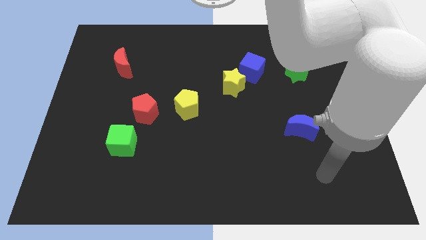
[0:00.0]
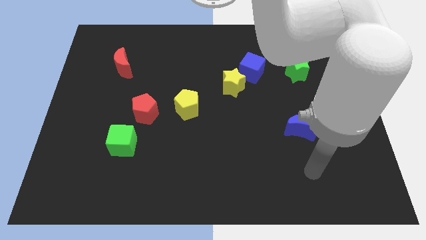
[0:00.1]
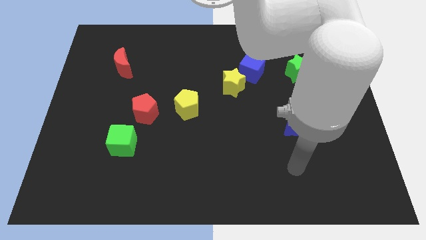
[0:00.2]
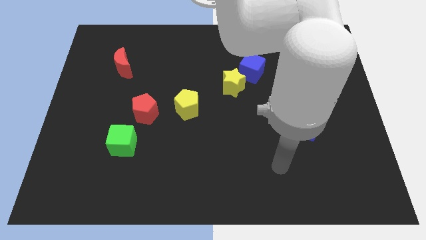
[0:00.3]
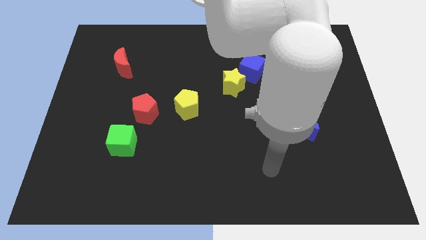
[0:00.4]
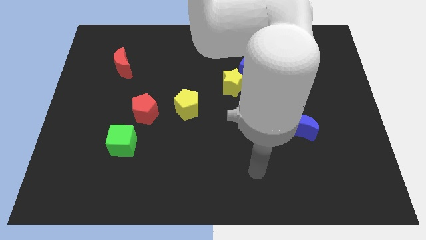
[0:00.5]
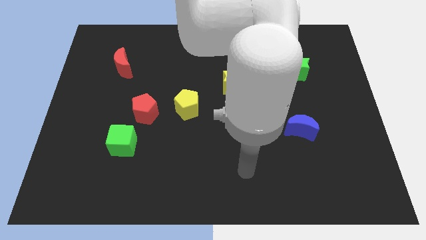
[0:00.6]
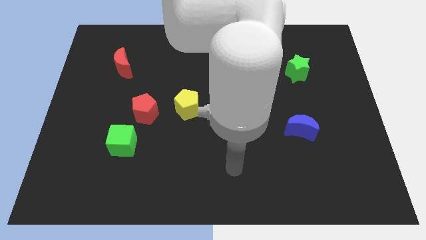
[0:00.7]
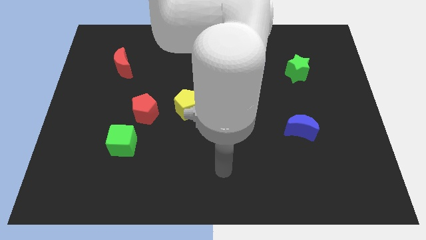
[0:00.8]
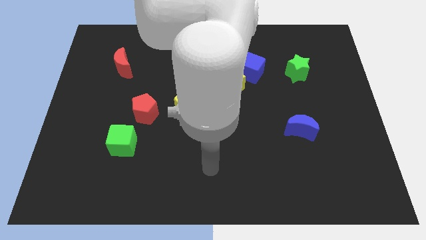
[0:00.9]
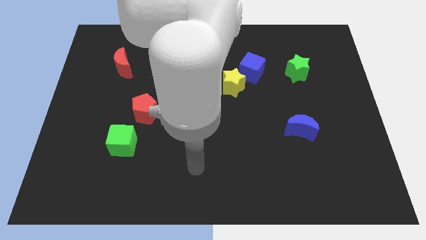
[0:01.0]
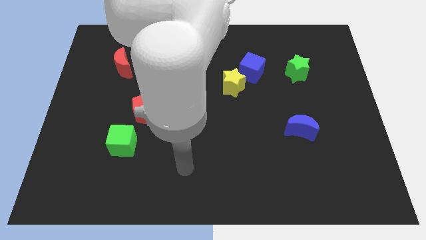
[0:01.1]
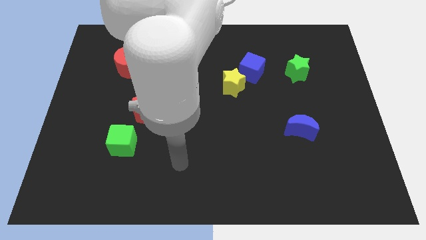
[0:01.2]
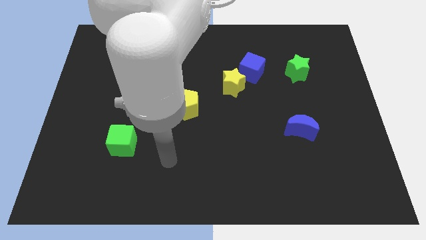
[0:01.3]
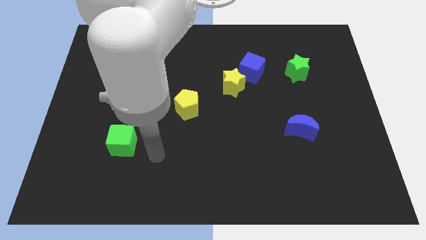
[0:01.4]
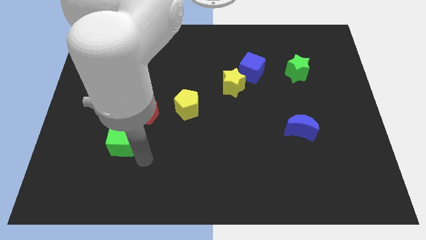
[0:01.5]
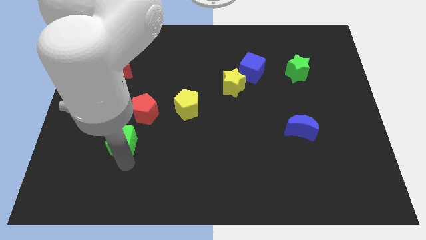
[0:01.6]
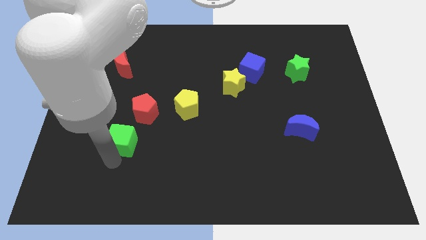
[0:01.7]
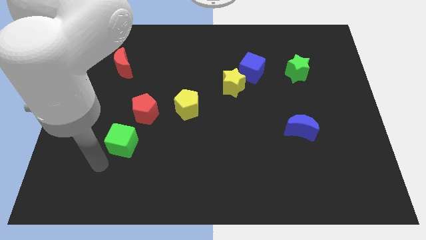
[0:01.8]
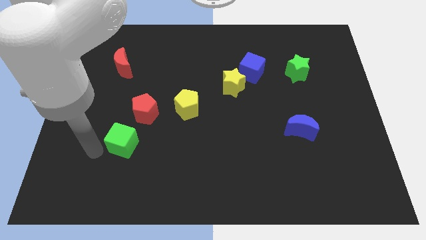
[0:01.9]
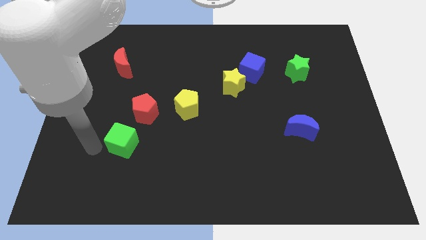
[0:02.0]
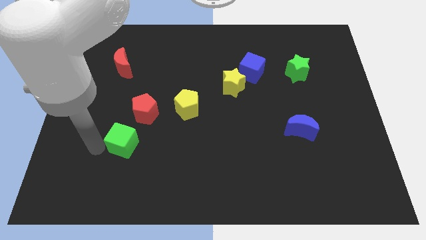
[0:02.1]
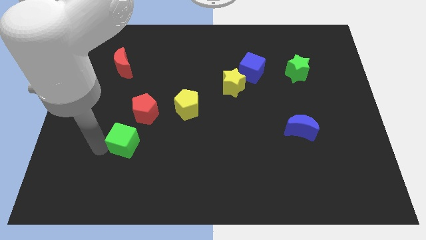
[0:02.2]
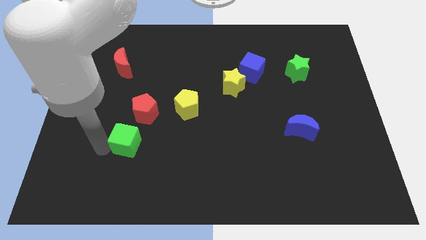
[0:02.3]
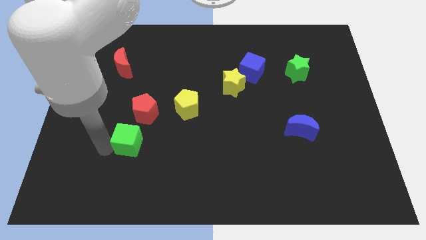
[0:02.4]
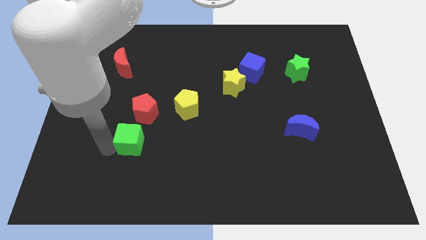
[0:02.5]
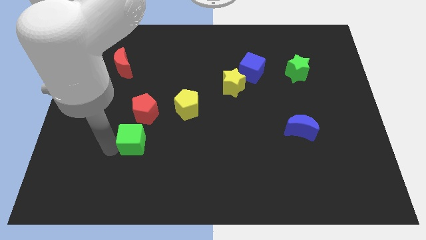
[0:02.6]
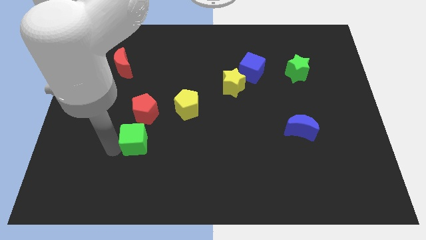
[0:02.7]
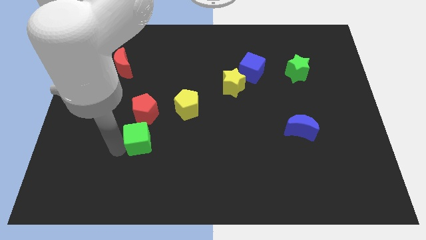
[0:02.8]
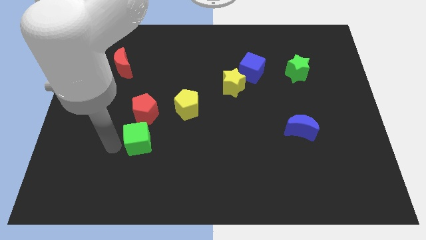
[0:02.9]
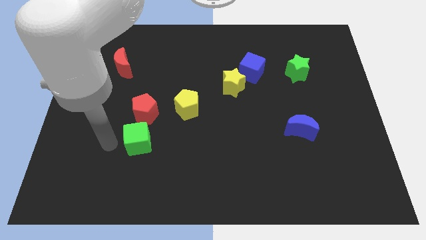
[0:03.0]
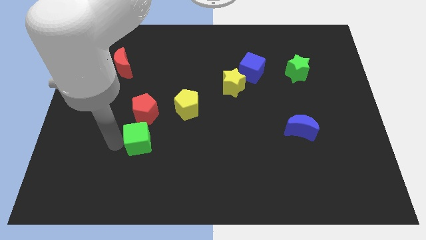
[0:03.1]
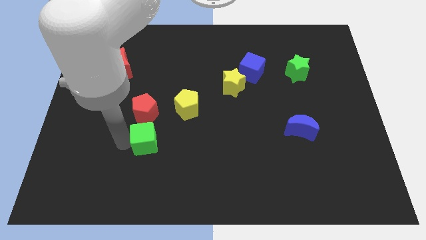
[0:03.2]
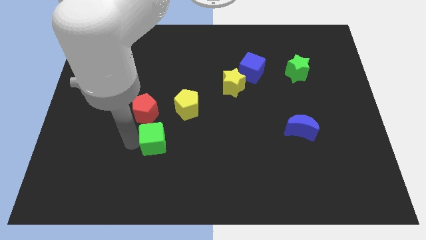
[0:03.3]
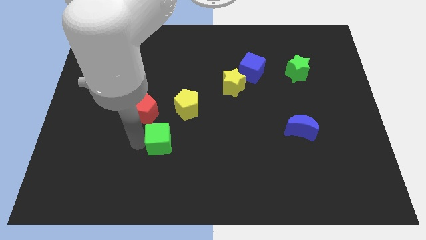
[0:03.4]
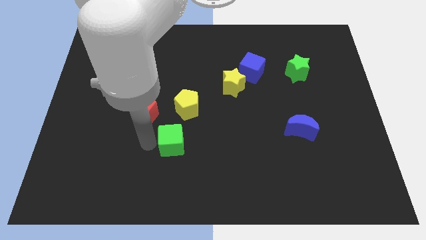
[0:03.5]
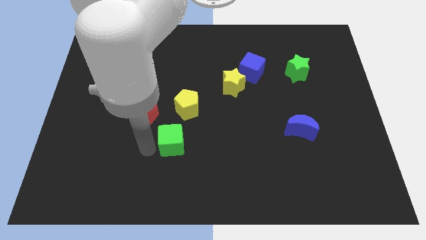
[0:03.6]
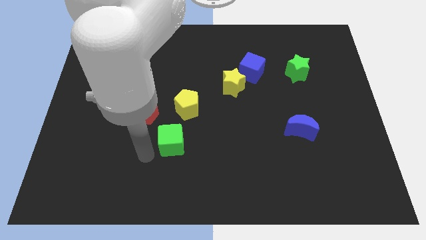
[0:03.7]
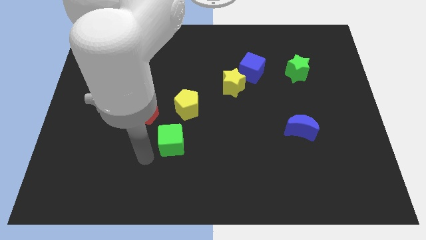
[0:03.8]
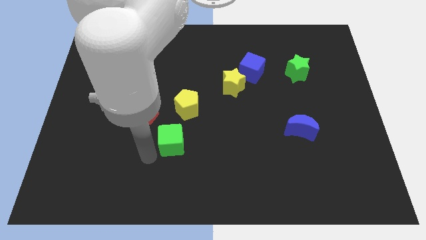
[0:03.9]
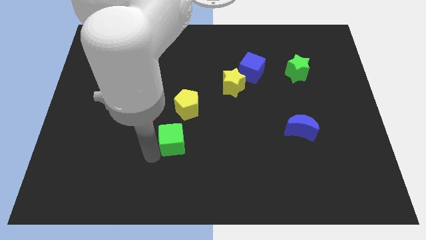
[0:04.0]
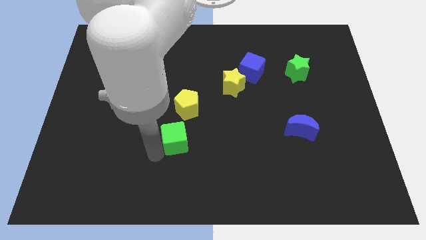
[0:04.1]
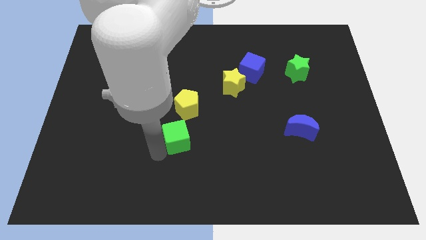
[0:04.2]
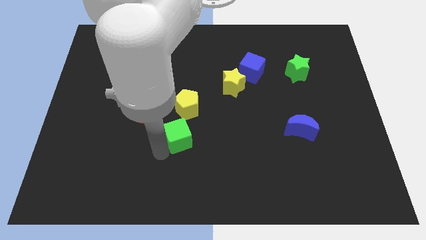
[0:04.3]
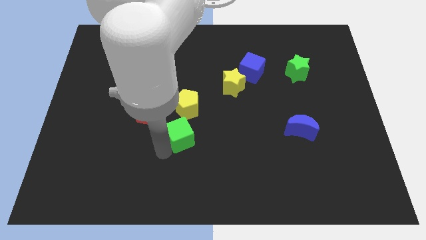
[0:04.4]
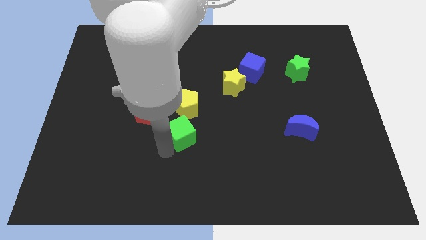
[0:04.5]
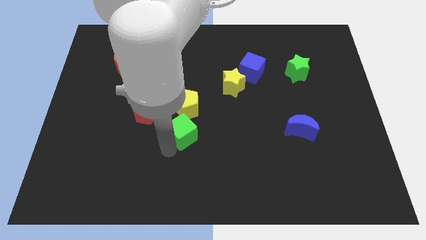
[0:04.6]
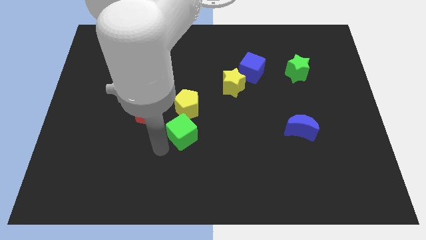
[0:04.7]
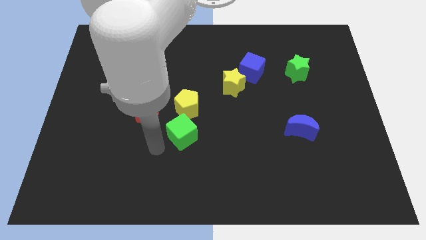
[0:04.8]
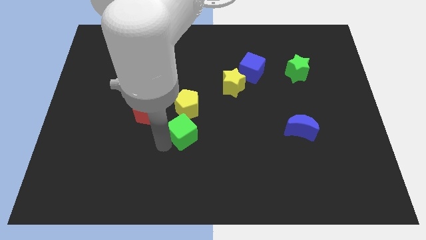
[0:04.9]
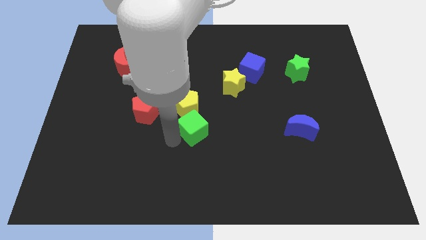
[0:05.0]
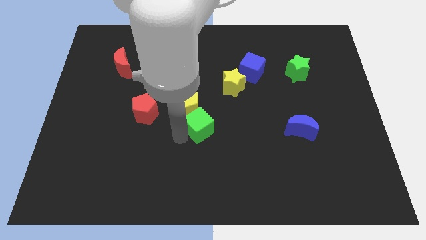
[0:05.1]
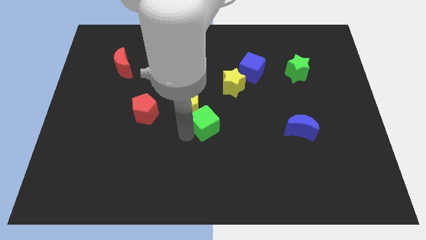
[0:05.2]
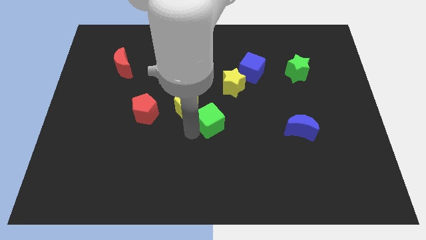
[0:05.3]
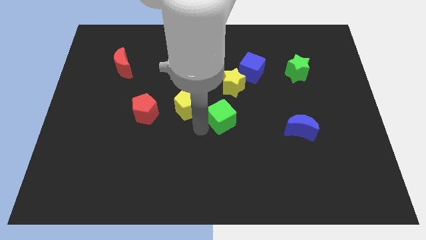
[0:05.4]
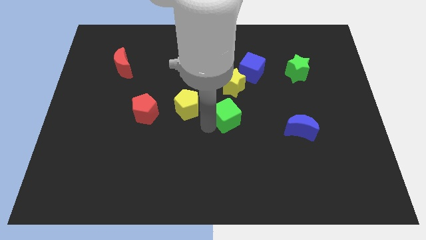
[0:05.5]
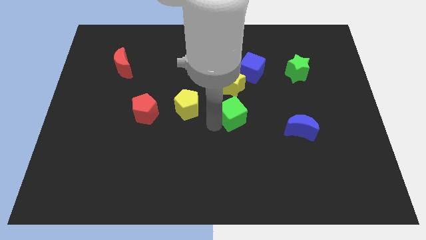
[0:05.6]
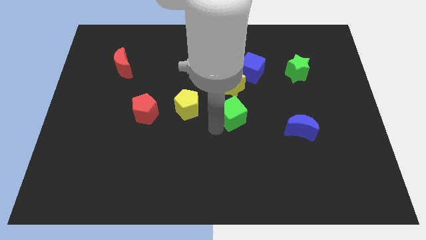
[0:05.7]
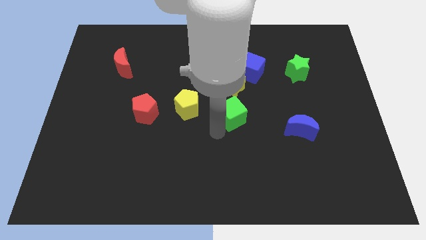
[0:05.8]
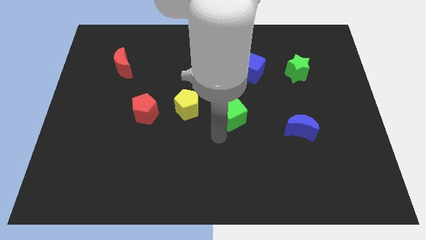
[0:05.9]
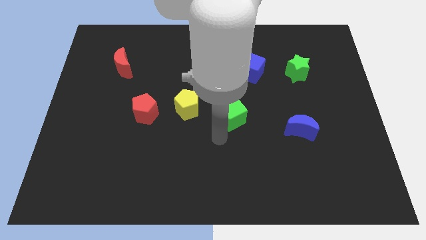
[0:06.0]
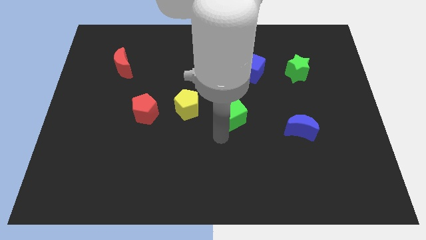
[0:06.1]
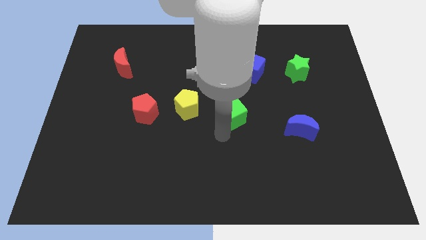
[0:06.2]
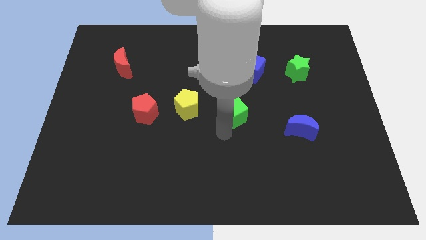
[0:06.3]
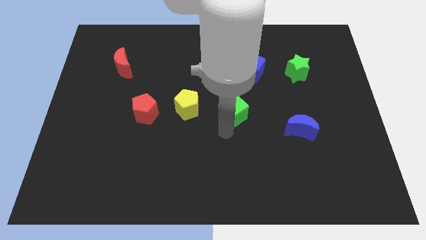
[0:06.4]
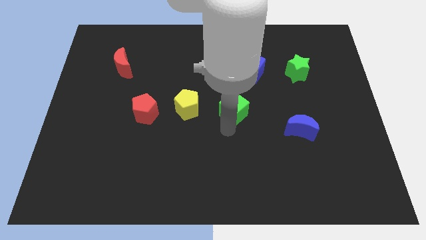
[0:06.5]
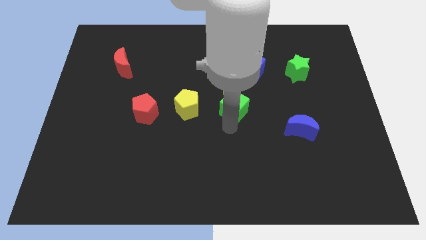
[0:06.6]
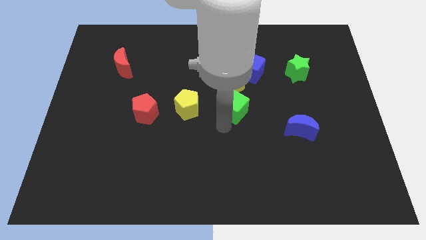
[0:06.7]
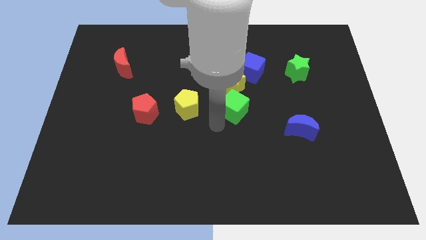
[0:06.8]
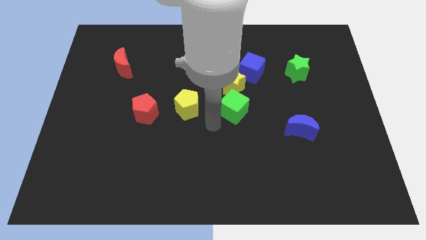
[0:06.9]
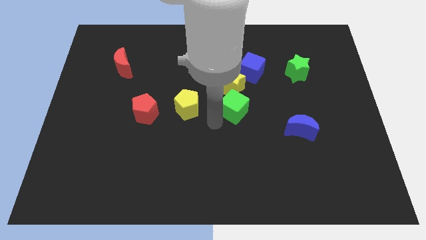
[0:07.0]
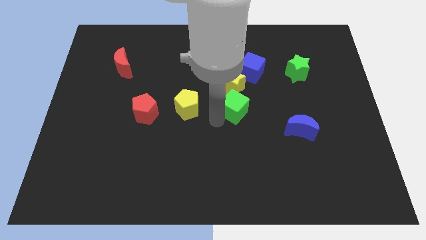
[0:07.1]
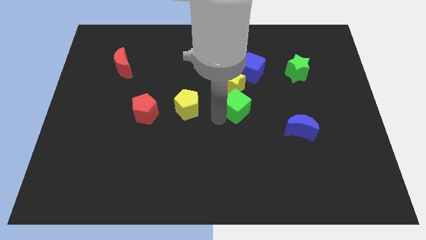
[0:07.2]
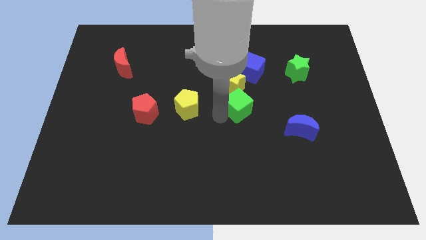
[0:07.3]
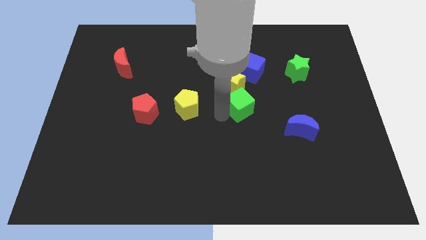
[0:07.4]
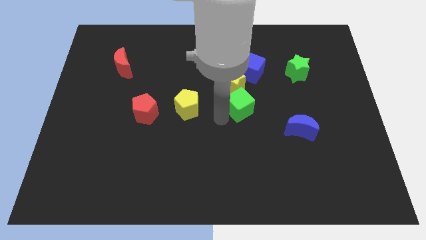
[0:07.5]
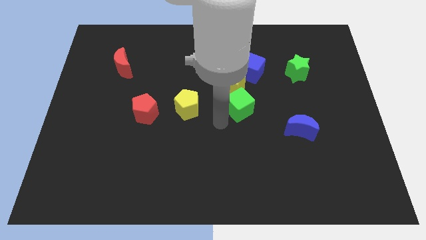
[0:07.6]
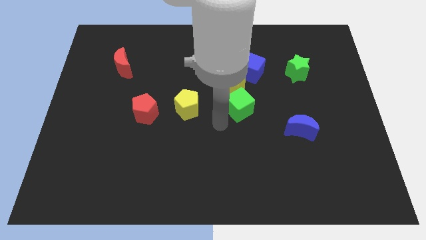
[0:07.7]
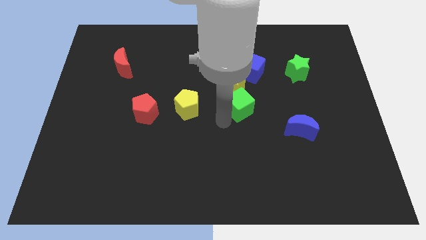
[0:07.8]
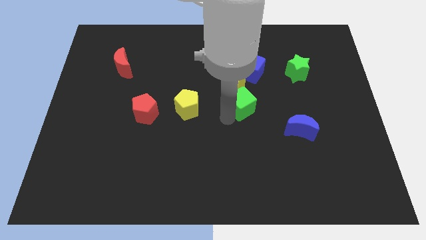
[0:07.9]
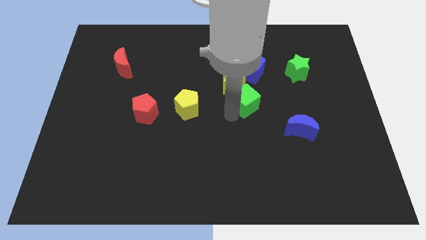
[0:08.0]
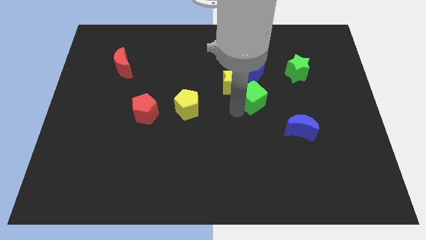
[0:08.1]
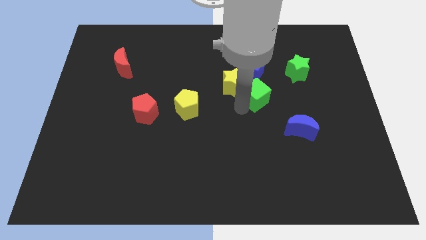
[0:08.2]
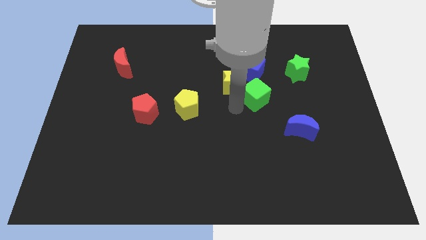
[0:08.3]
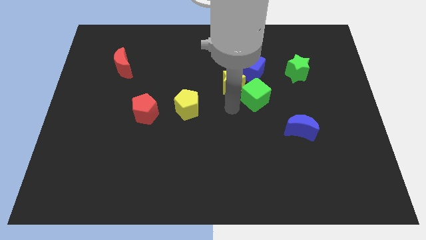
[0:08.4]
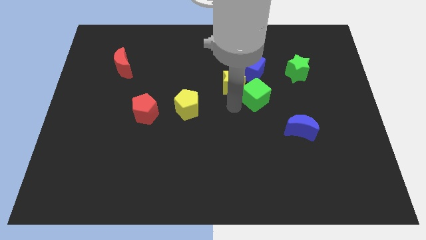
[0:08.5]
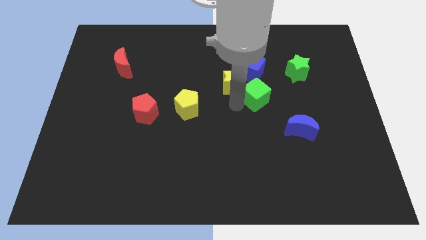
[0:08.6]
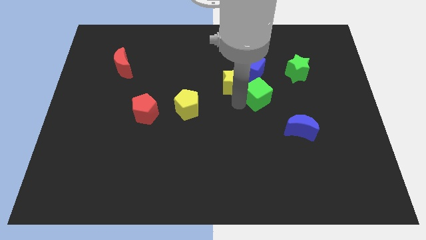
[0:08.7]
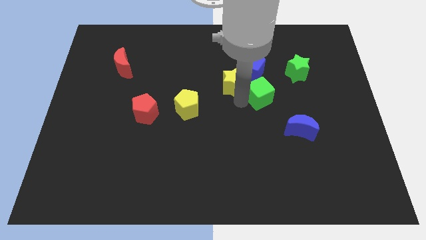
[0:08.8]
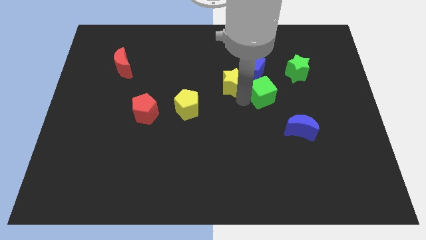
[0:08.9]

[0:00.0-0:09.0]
slide the green cube diagonally down and to the left of the green star
